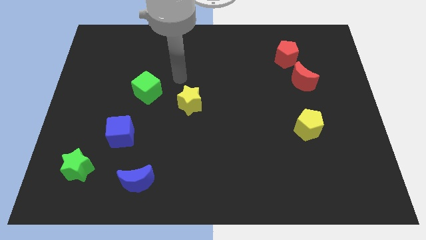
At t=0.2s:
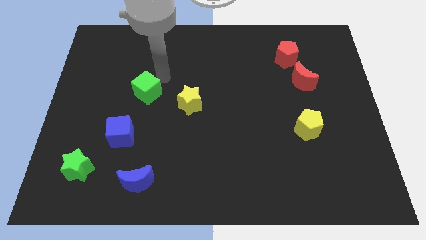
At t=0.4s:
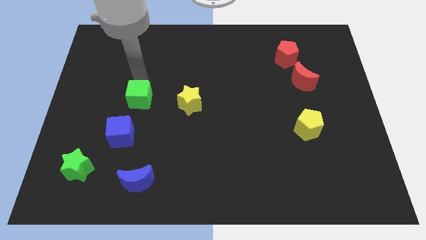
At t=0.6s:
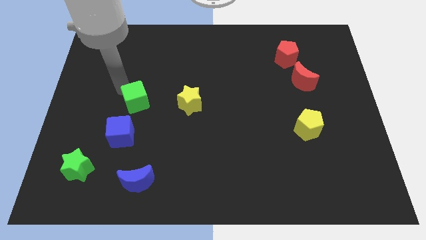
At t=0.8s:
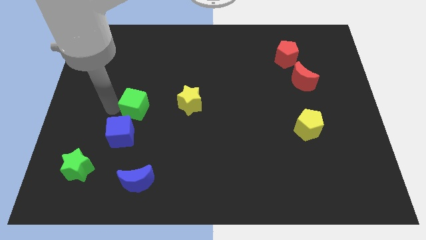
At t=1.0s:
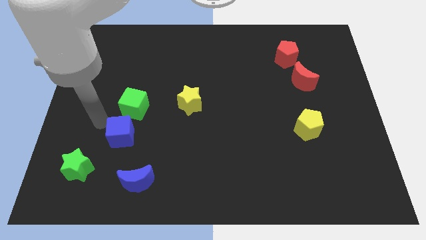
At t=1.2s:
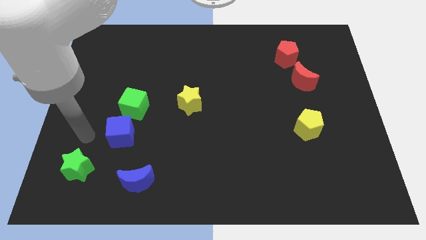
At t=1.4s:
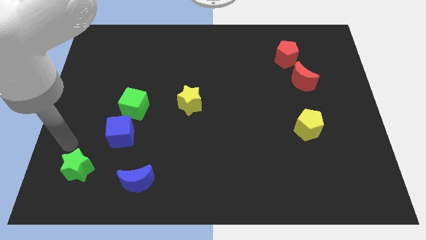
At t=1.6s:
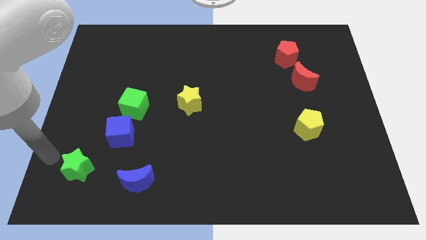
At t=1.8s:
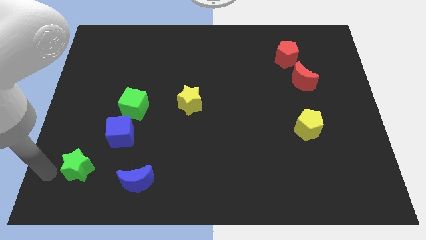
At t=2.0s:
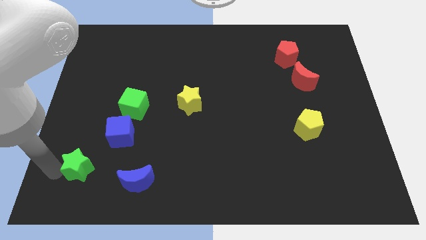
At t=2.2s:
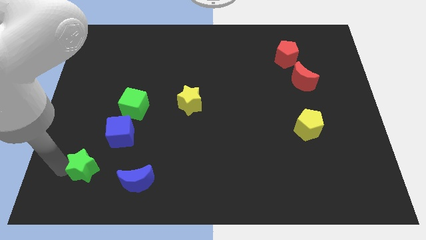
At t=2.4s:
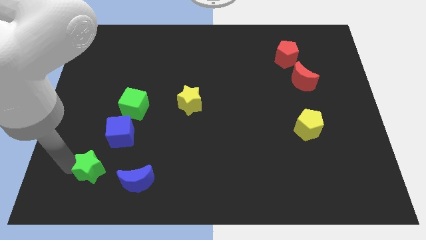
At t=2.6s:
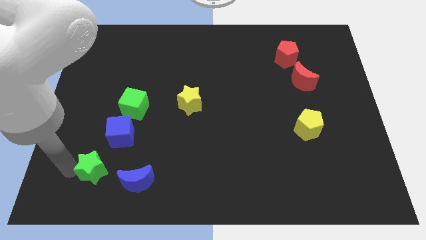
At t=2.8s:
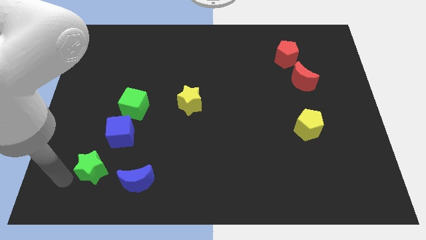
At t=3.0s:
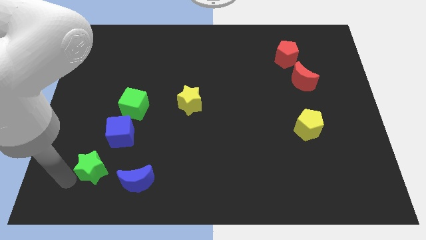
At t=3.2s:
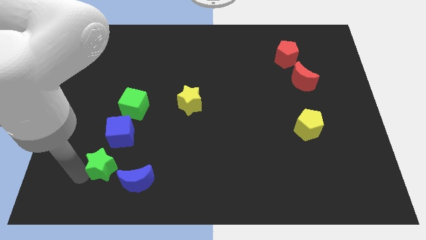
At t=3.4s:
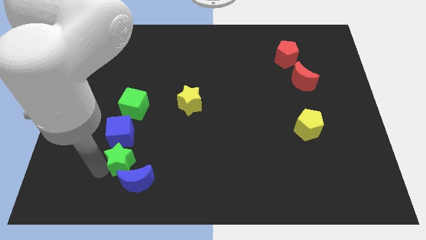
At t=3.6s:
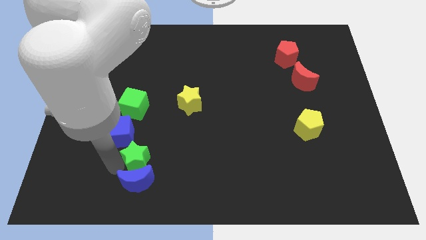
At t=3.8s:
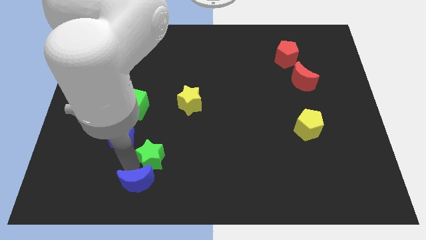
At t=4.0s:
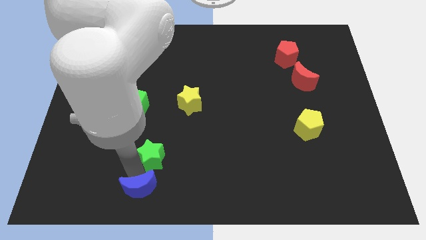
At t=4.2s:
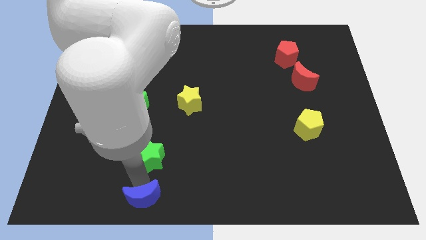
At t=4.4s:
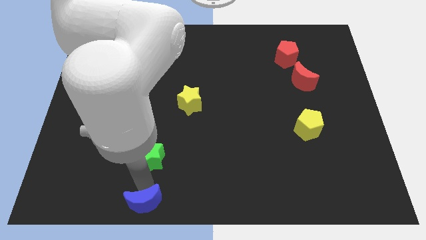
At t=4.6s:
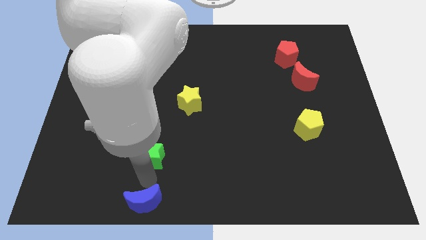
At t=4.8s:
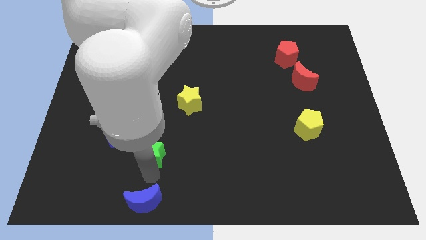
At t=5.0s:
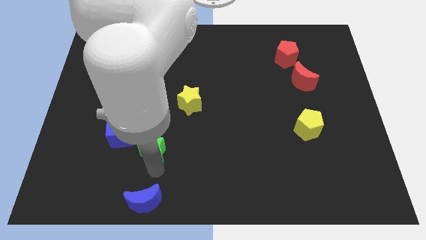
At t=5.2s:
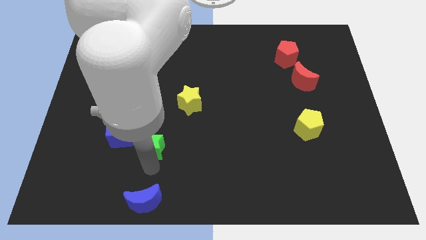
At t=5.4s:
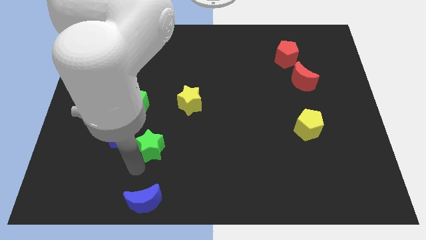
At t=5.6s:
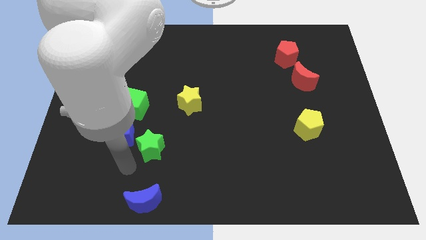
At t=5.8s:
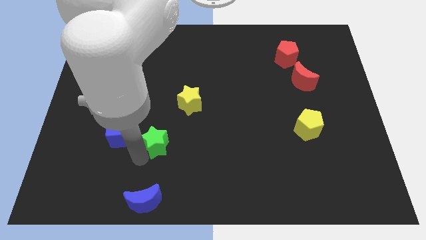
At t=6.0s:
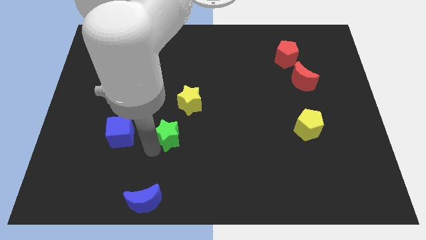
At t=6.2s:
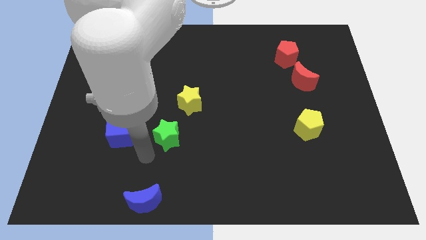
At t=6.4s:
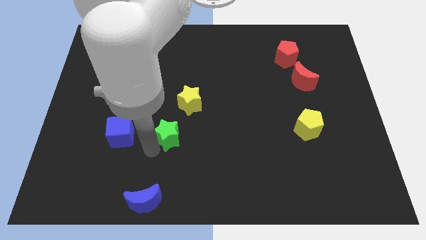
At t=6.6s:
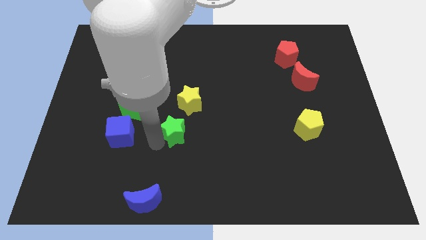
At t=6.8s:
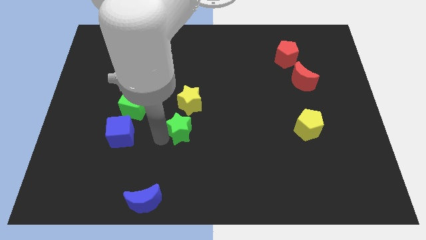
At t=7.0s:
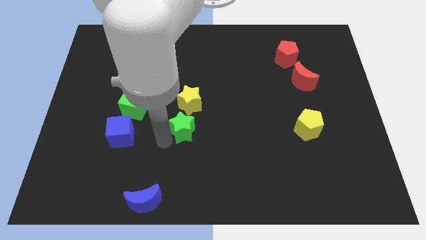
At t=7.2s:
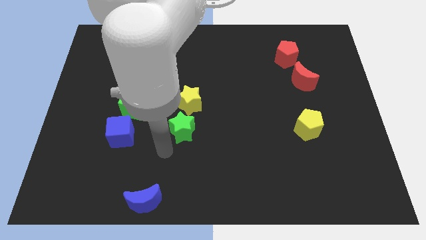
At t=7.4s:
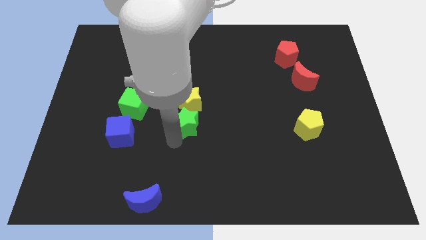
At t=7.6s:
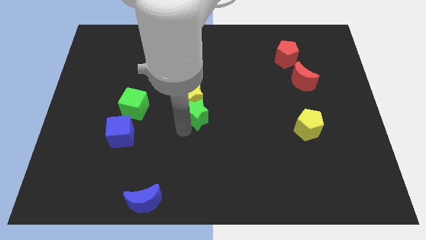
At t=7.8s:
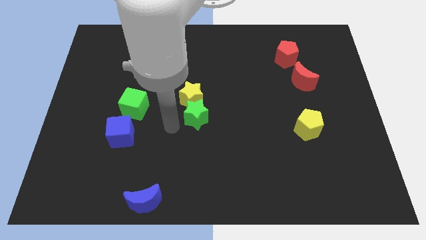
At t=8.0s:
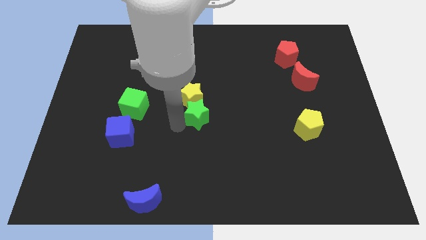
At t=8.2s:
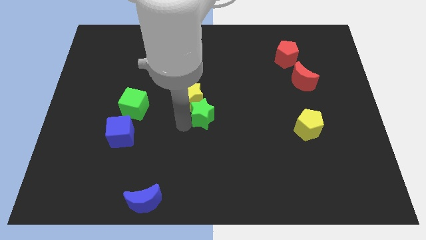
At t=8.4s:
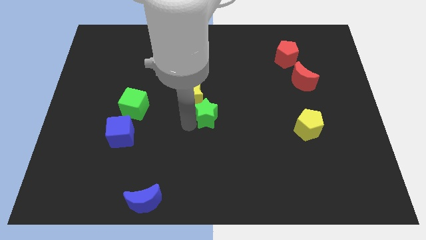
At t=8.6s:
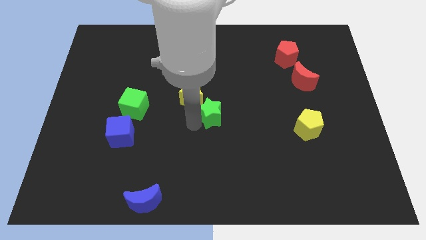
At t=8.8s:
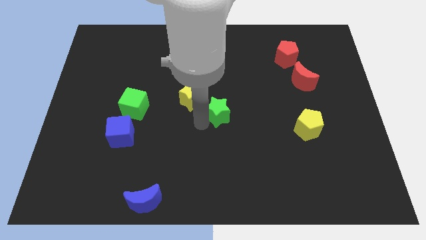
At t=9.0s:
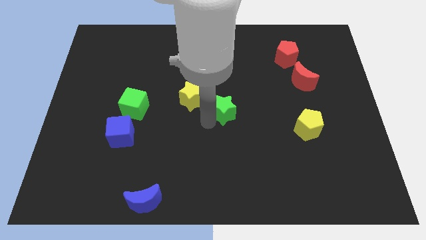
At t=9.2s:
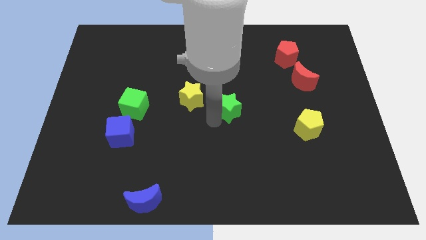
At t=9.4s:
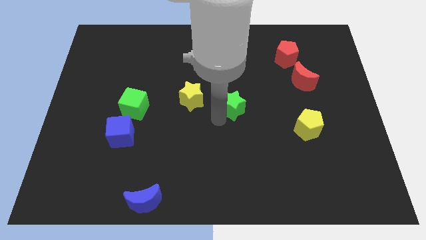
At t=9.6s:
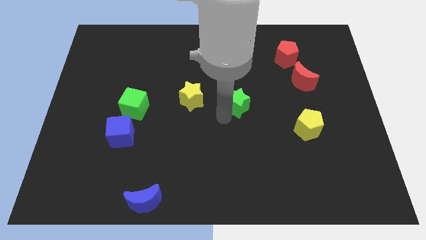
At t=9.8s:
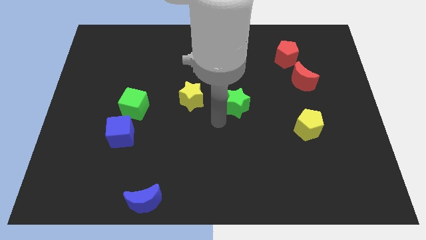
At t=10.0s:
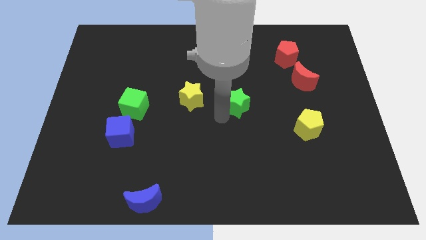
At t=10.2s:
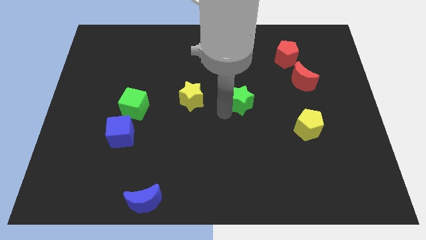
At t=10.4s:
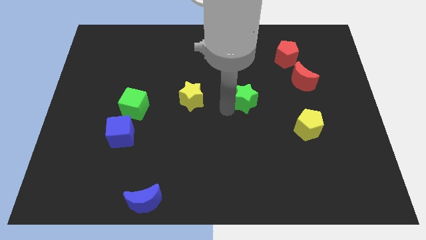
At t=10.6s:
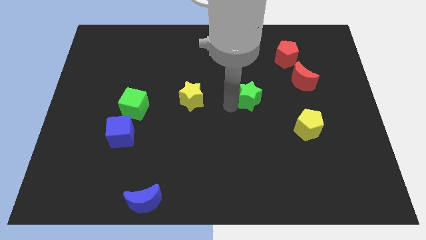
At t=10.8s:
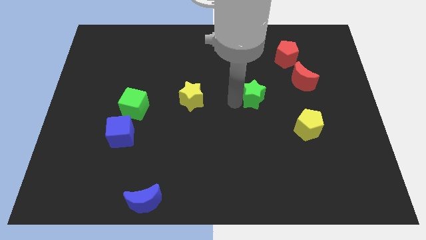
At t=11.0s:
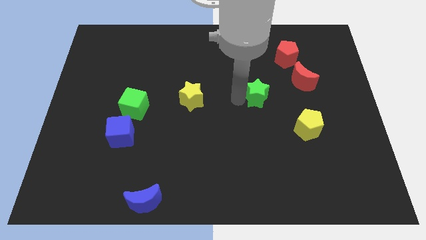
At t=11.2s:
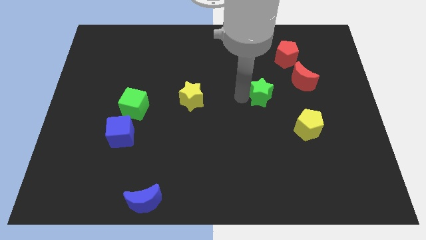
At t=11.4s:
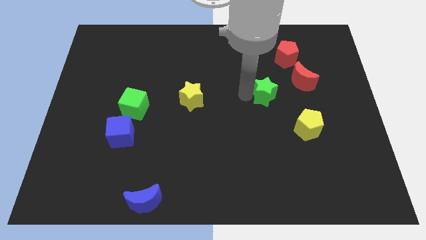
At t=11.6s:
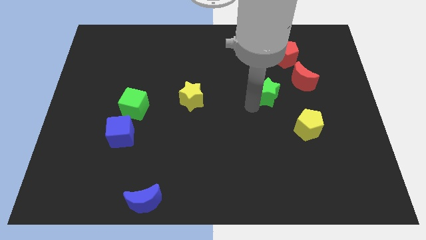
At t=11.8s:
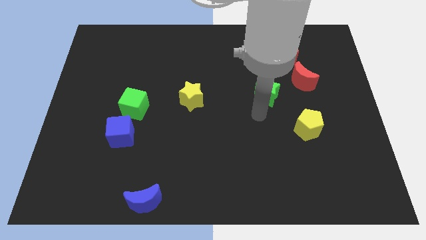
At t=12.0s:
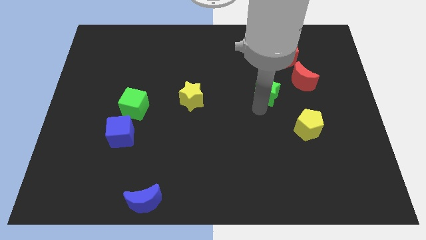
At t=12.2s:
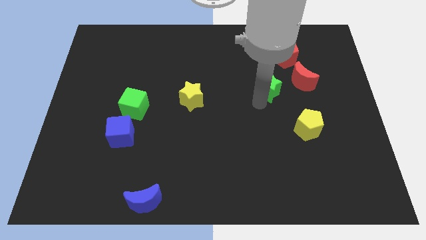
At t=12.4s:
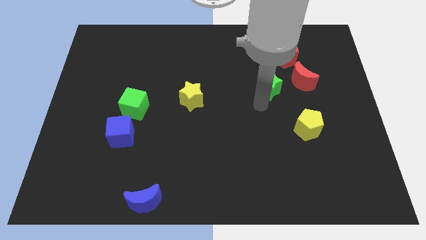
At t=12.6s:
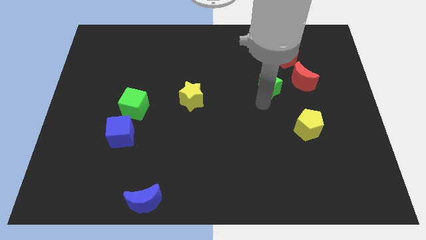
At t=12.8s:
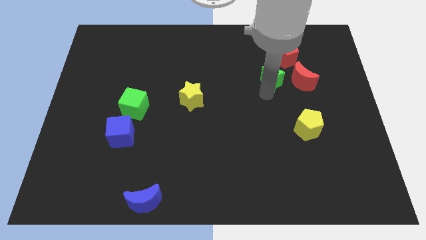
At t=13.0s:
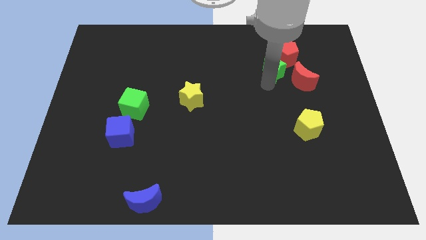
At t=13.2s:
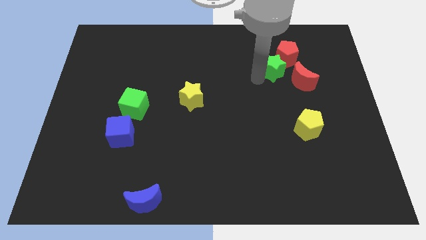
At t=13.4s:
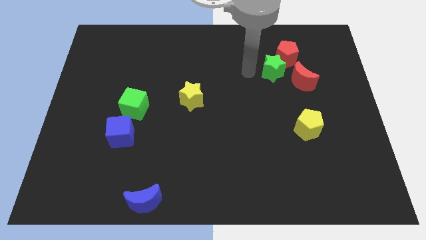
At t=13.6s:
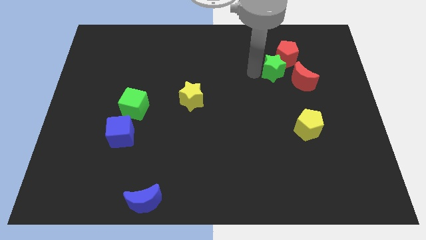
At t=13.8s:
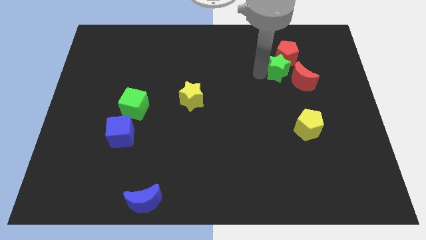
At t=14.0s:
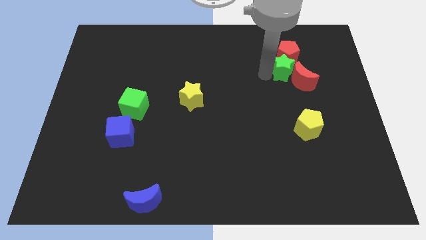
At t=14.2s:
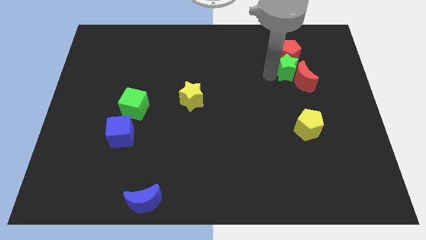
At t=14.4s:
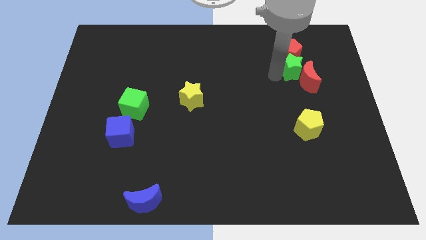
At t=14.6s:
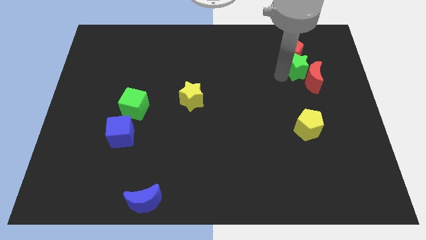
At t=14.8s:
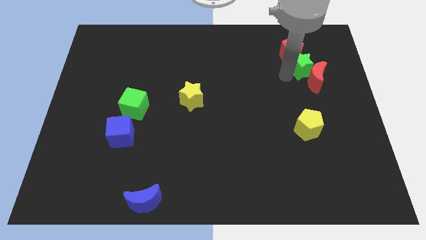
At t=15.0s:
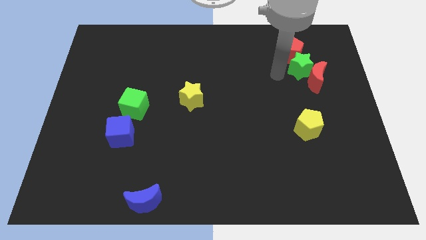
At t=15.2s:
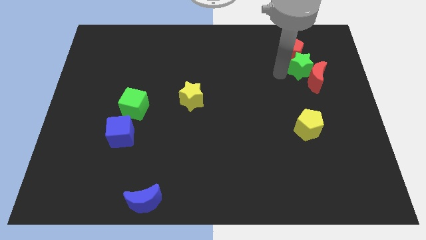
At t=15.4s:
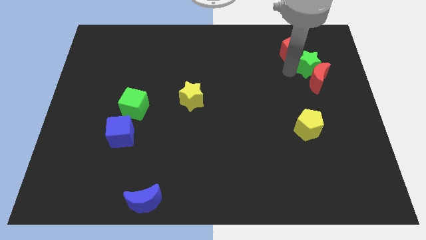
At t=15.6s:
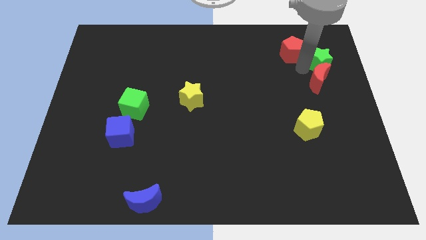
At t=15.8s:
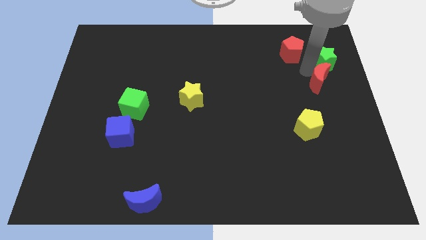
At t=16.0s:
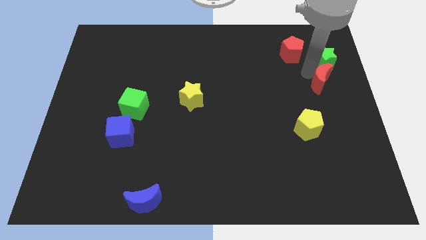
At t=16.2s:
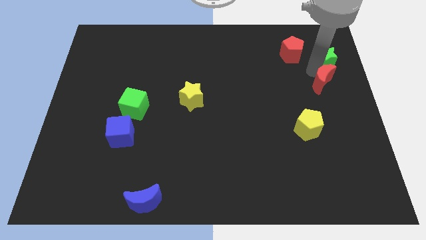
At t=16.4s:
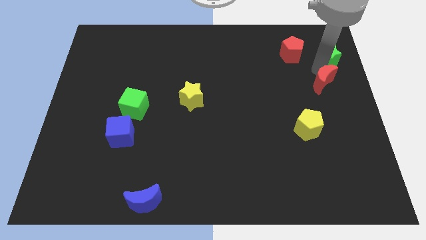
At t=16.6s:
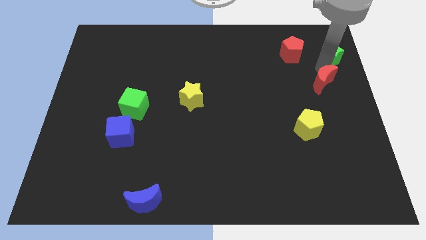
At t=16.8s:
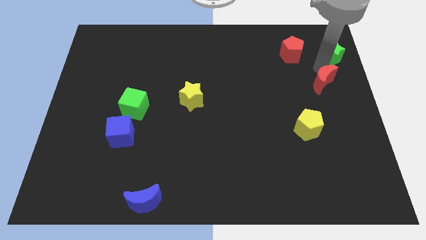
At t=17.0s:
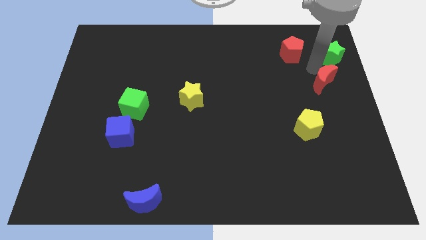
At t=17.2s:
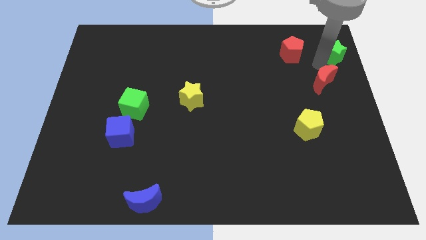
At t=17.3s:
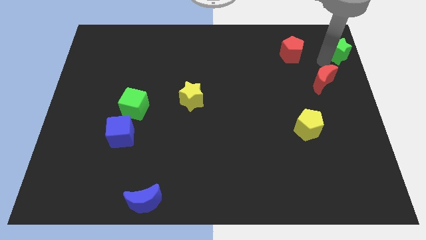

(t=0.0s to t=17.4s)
slide the green star to the top right
